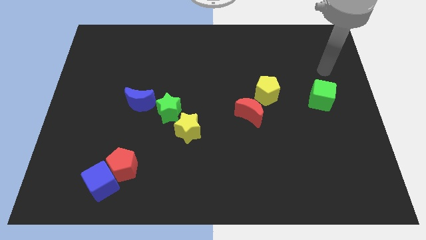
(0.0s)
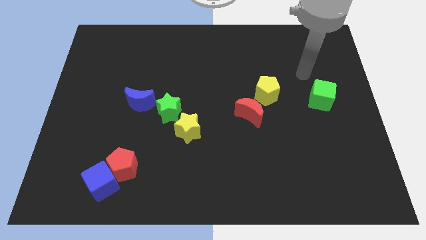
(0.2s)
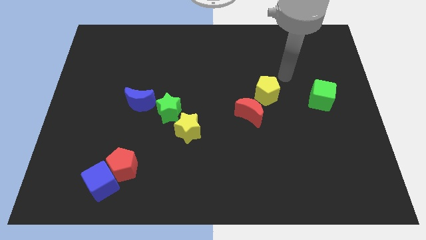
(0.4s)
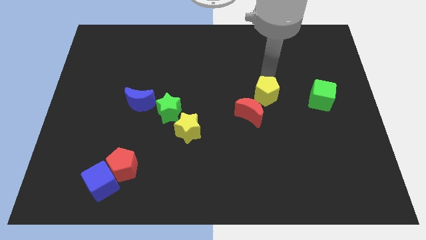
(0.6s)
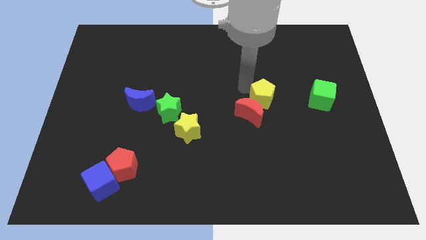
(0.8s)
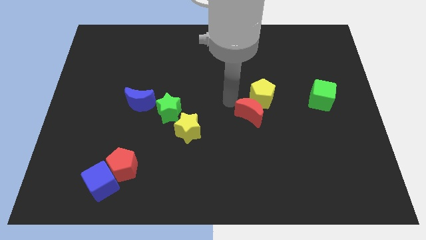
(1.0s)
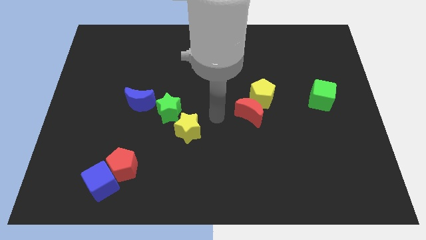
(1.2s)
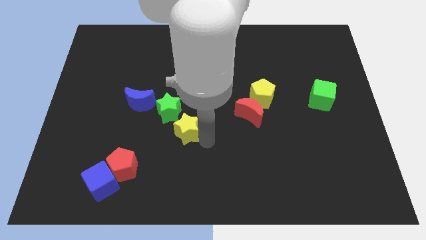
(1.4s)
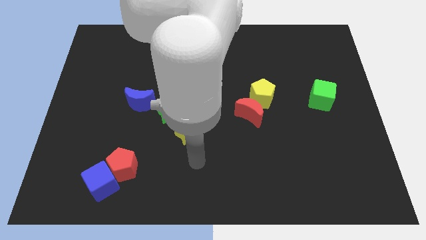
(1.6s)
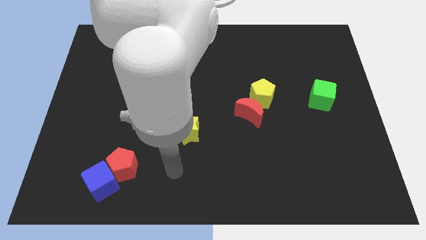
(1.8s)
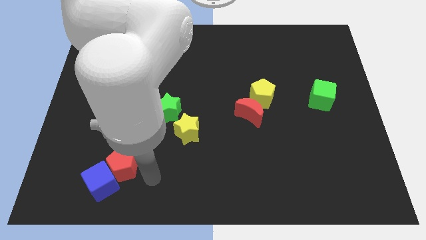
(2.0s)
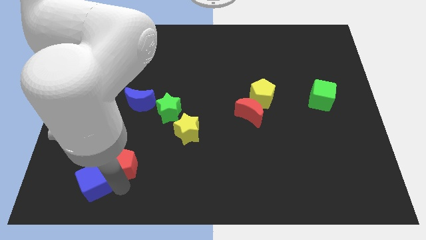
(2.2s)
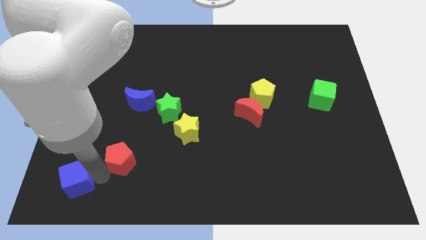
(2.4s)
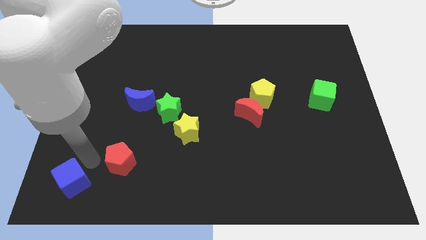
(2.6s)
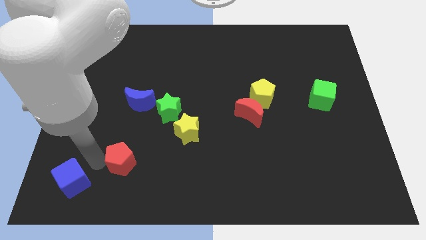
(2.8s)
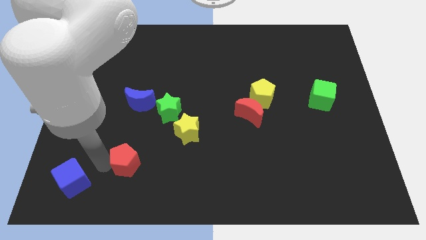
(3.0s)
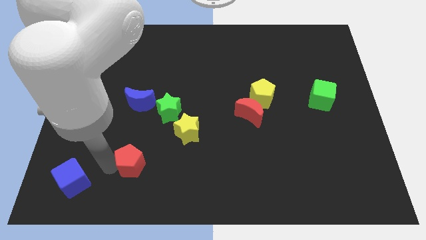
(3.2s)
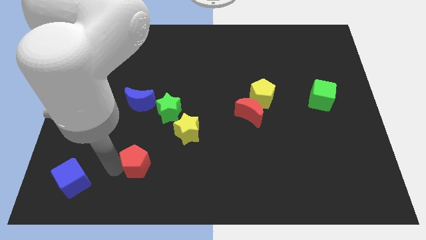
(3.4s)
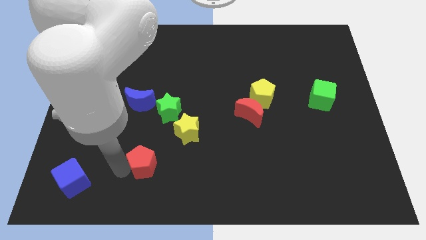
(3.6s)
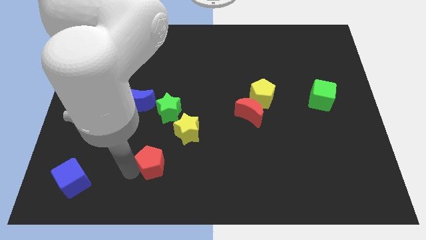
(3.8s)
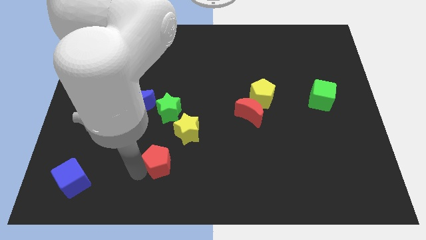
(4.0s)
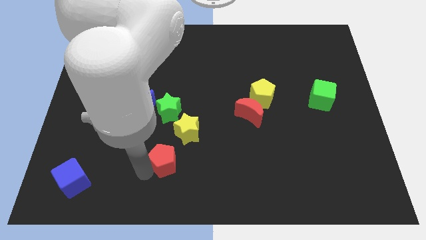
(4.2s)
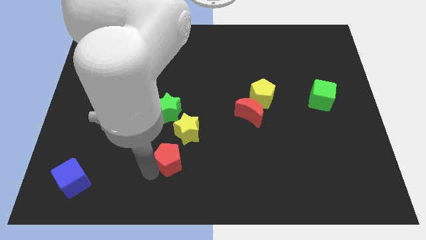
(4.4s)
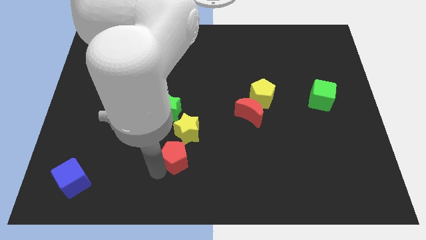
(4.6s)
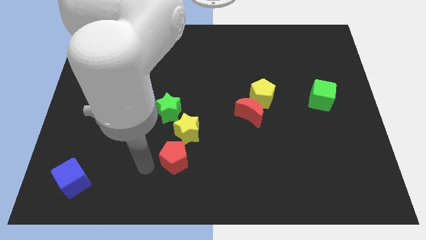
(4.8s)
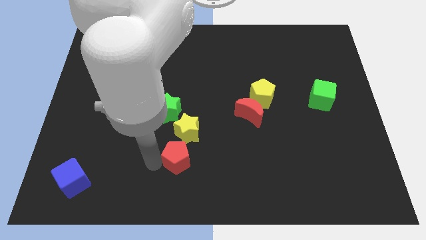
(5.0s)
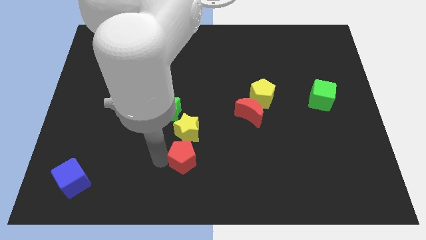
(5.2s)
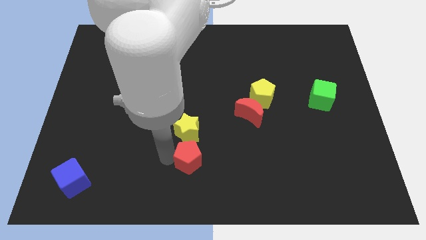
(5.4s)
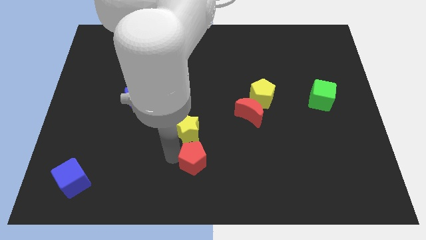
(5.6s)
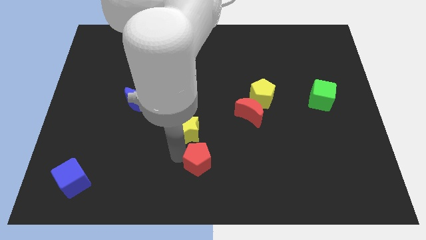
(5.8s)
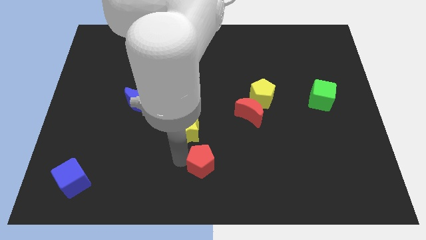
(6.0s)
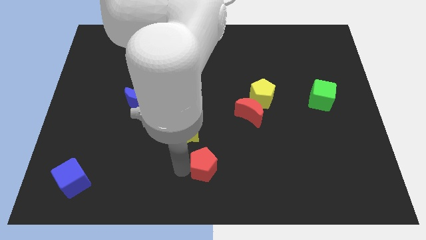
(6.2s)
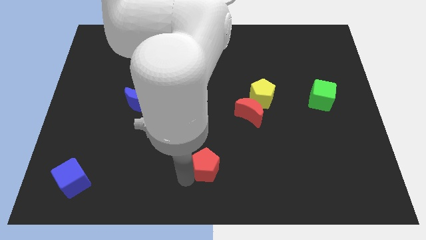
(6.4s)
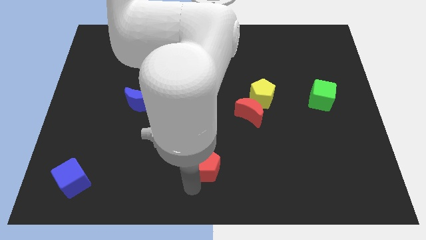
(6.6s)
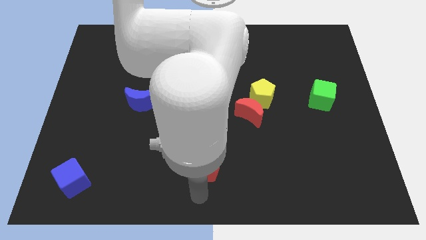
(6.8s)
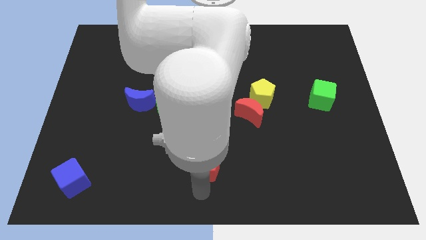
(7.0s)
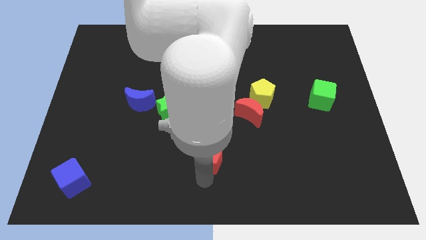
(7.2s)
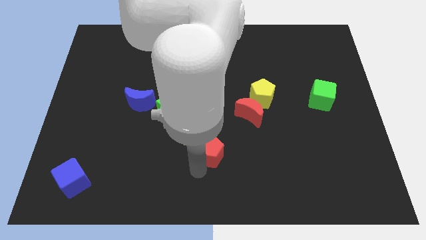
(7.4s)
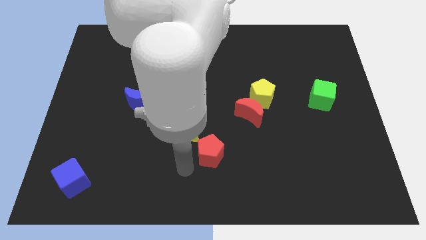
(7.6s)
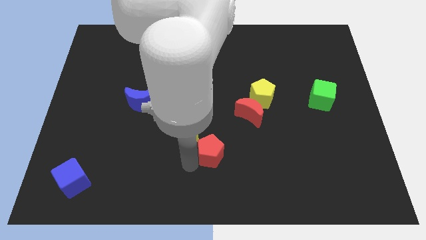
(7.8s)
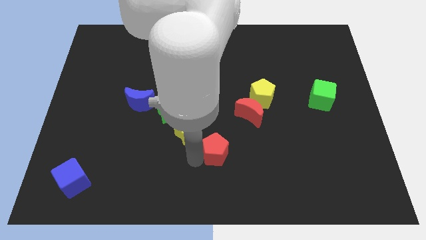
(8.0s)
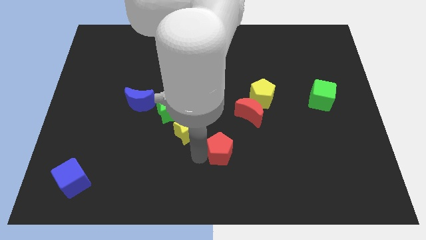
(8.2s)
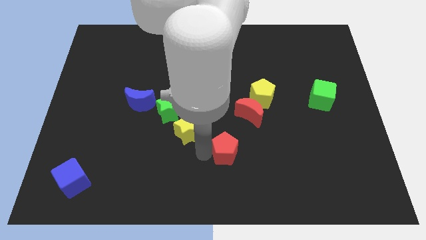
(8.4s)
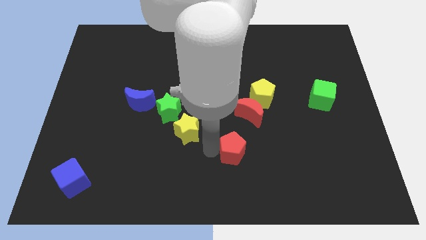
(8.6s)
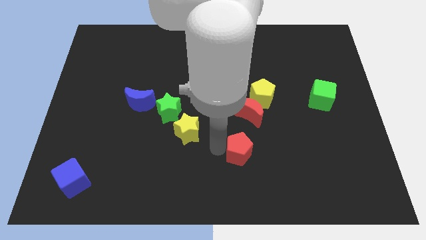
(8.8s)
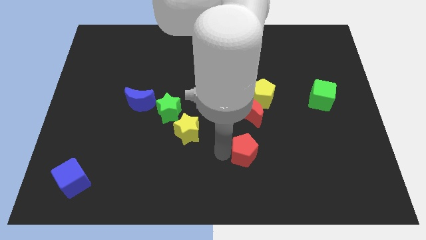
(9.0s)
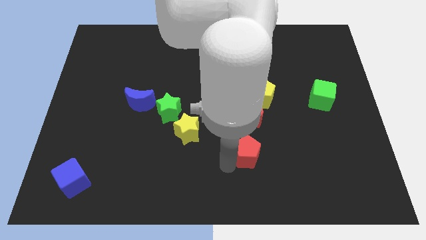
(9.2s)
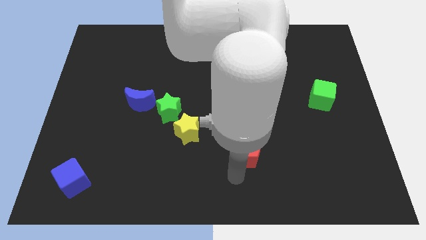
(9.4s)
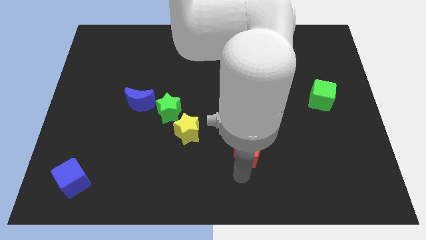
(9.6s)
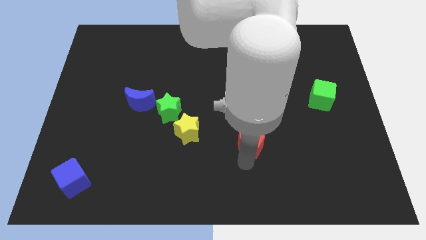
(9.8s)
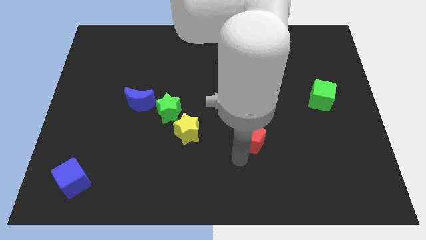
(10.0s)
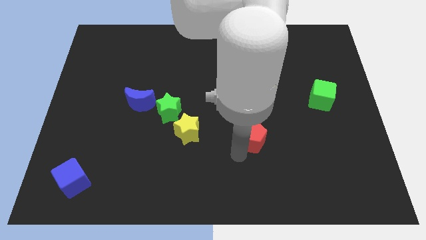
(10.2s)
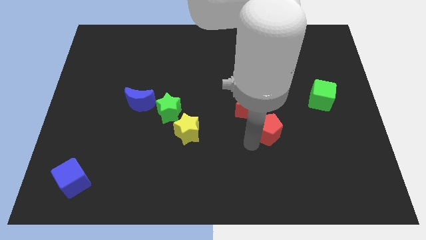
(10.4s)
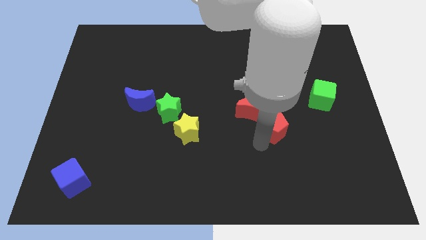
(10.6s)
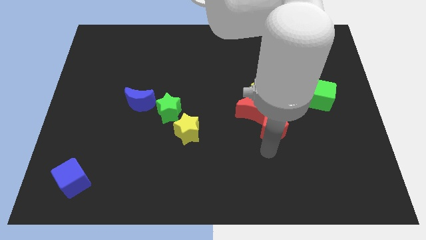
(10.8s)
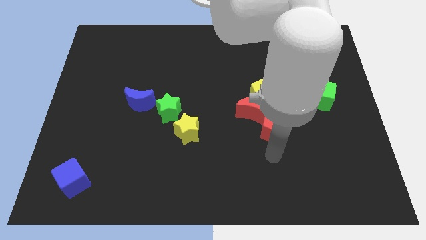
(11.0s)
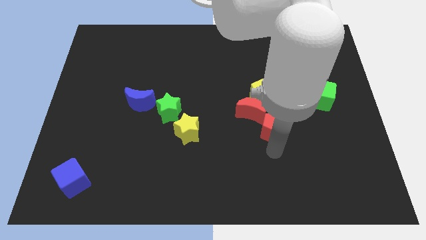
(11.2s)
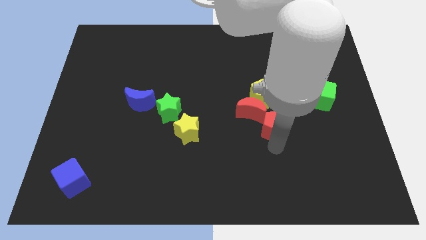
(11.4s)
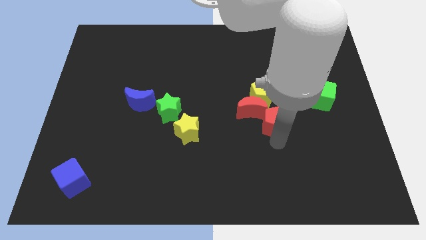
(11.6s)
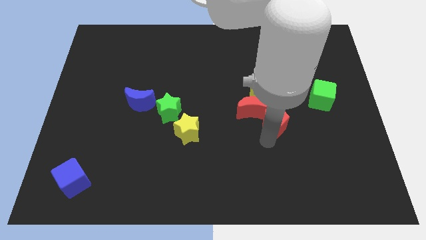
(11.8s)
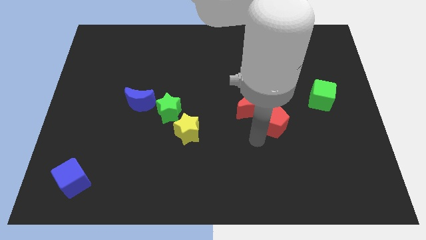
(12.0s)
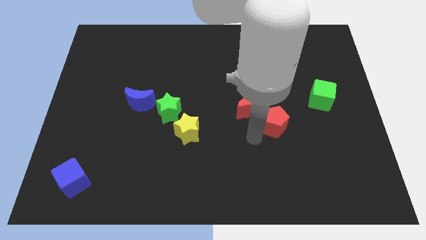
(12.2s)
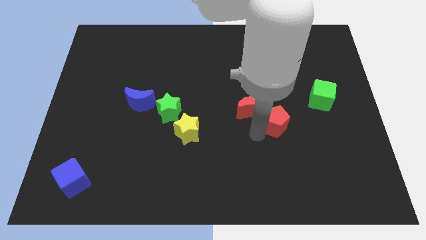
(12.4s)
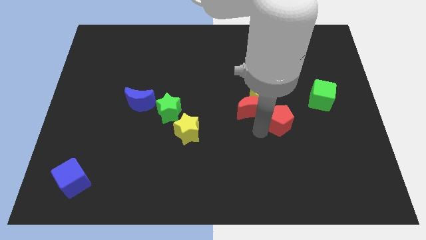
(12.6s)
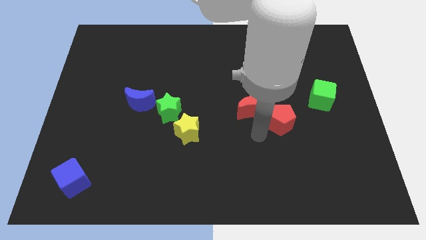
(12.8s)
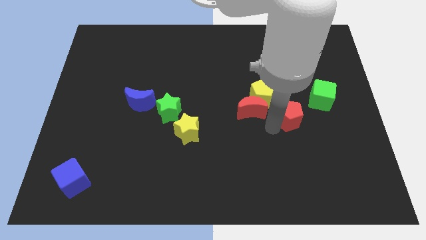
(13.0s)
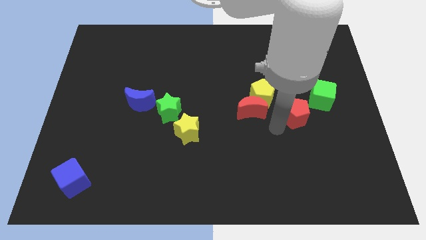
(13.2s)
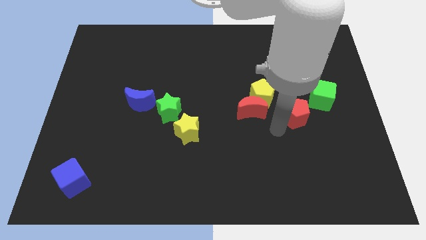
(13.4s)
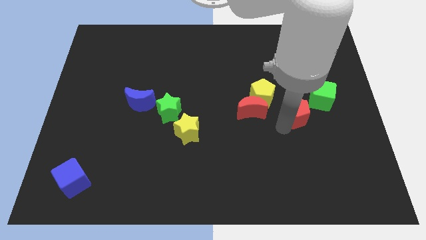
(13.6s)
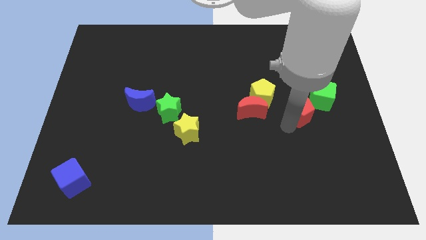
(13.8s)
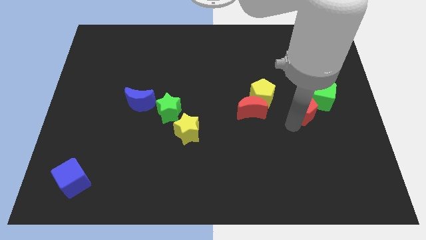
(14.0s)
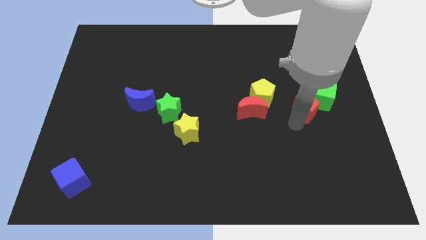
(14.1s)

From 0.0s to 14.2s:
move the red pentagon next to the green cube
